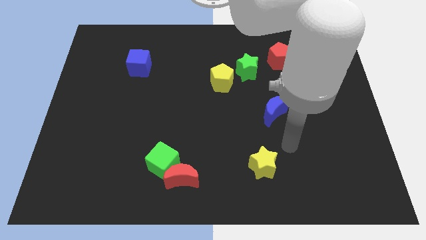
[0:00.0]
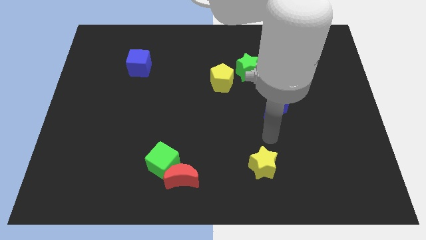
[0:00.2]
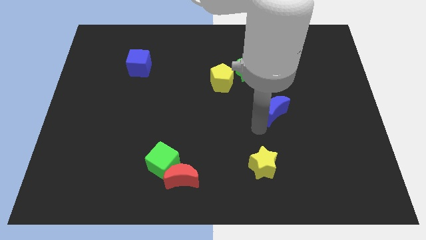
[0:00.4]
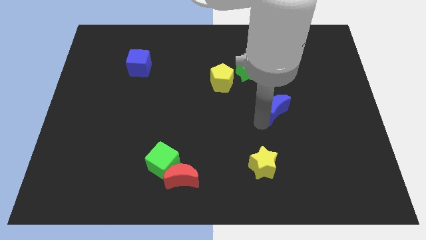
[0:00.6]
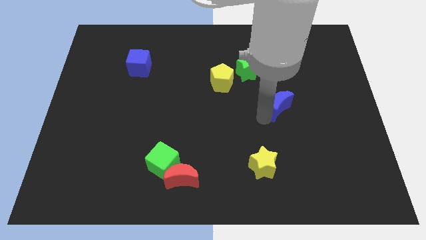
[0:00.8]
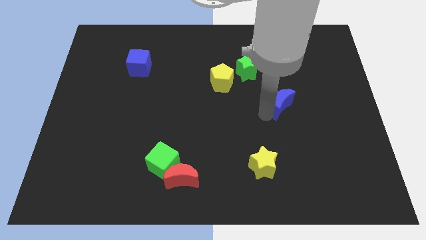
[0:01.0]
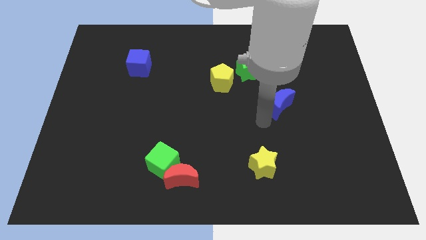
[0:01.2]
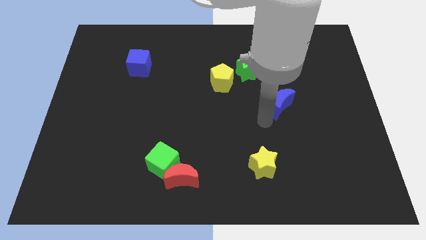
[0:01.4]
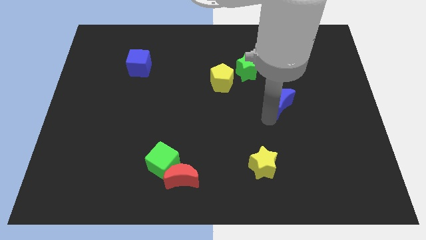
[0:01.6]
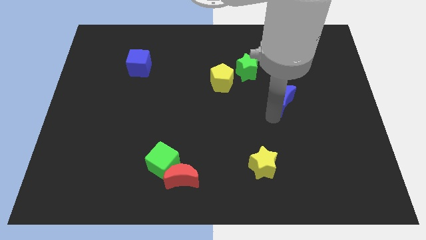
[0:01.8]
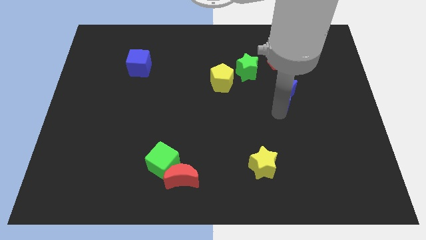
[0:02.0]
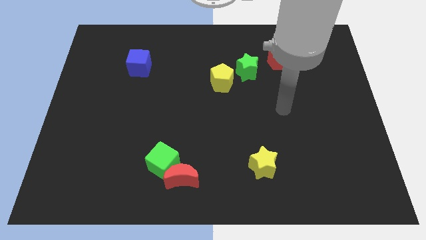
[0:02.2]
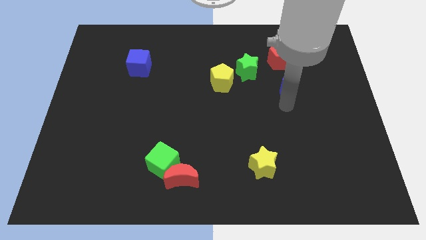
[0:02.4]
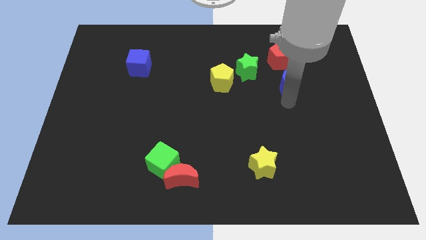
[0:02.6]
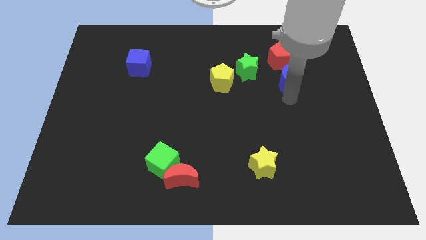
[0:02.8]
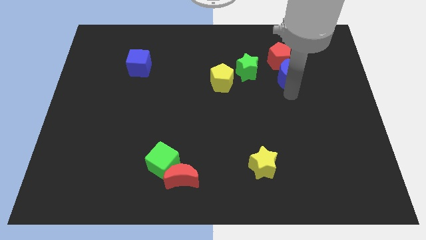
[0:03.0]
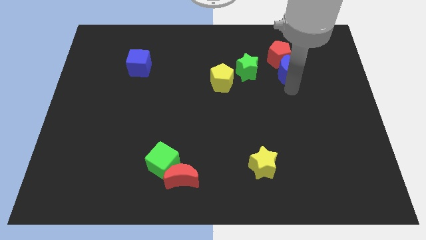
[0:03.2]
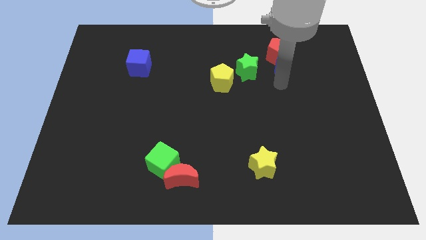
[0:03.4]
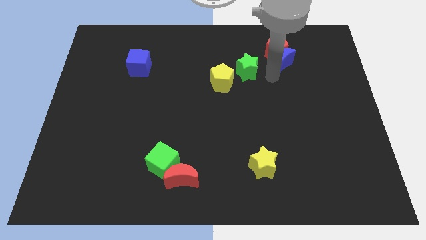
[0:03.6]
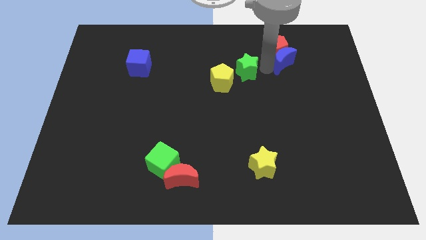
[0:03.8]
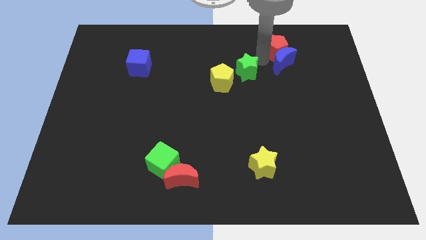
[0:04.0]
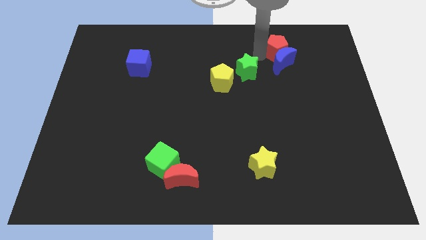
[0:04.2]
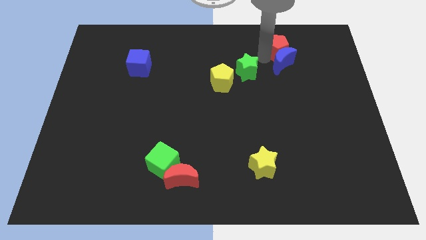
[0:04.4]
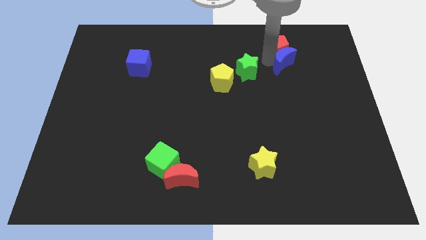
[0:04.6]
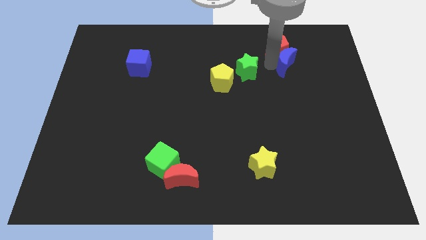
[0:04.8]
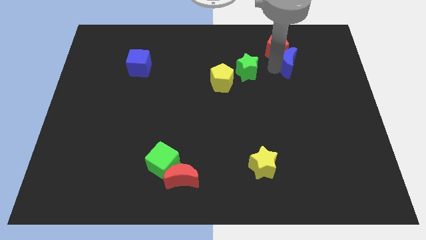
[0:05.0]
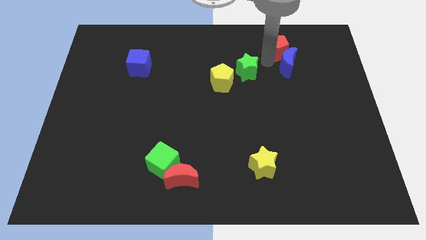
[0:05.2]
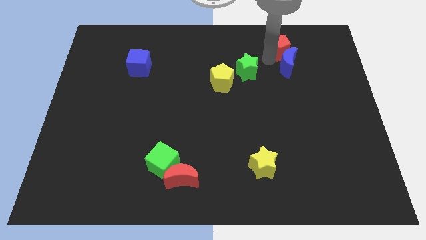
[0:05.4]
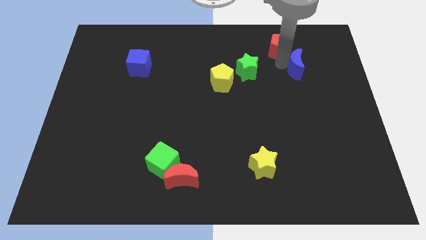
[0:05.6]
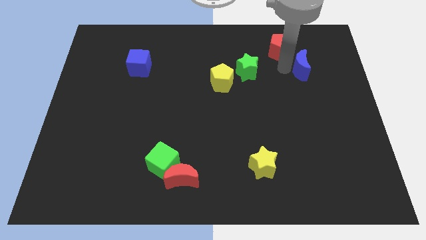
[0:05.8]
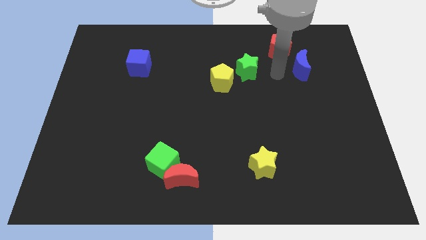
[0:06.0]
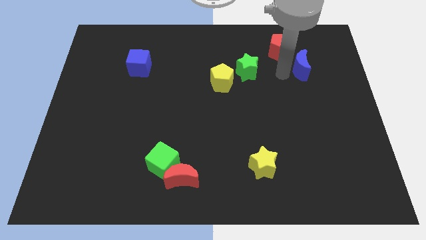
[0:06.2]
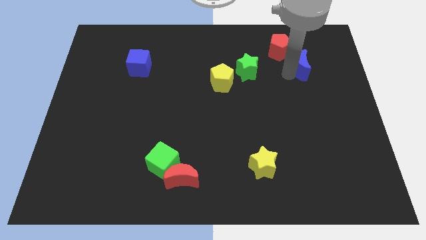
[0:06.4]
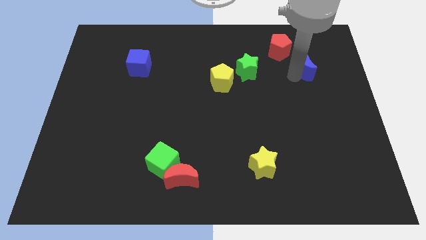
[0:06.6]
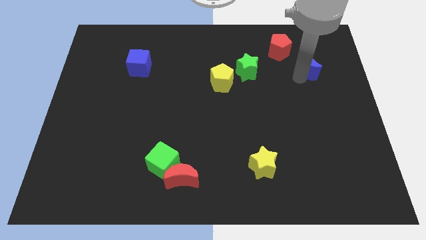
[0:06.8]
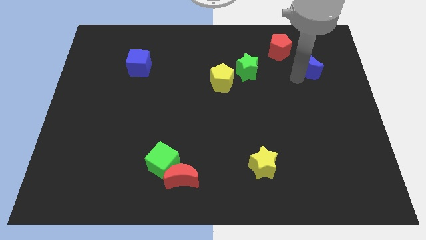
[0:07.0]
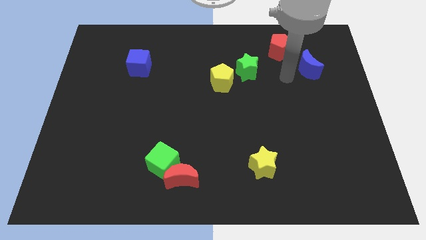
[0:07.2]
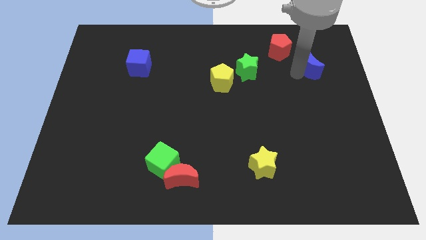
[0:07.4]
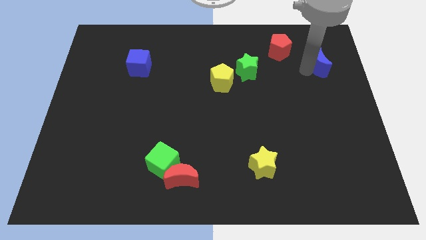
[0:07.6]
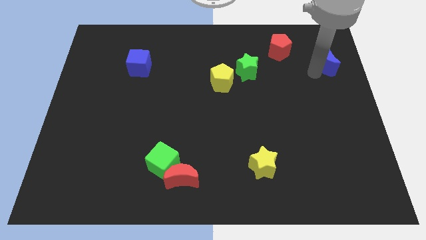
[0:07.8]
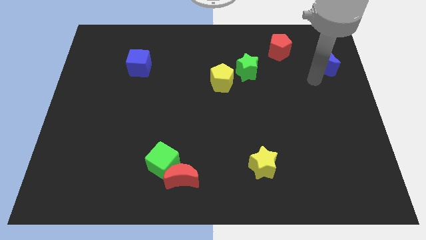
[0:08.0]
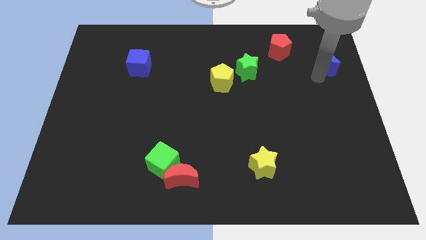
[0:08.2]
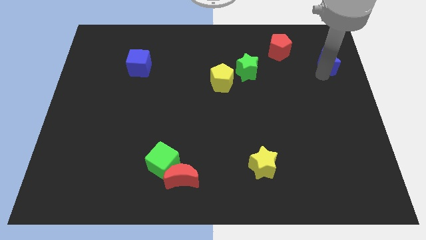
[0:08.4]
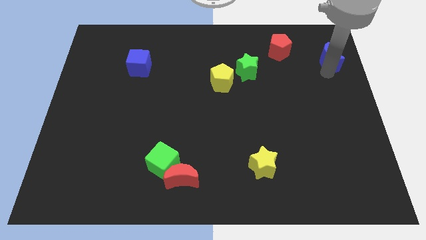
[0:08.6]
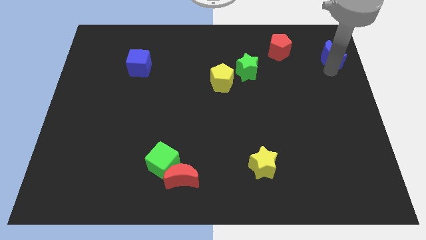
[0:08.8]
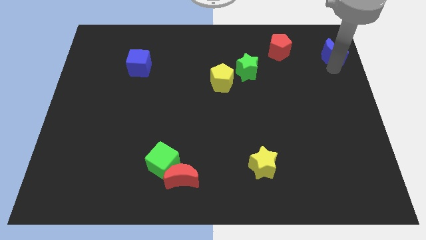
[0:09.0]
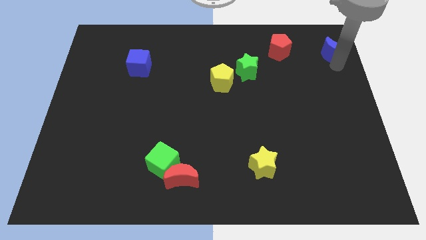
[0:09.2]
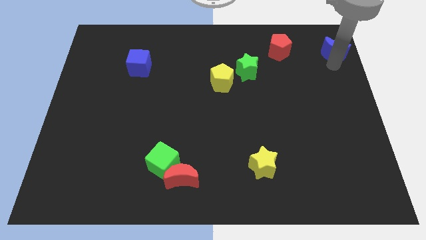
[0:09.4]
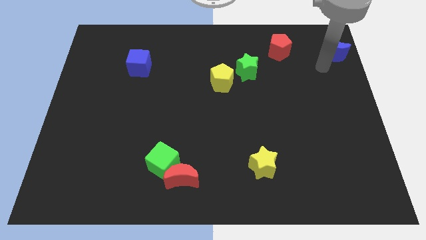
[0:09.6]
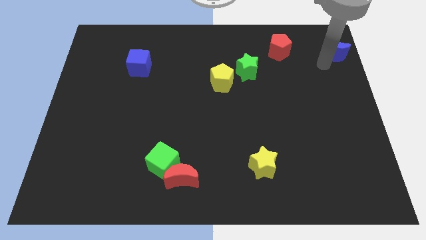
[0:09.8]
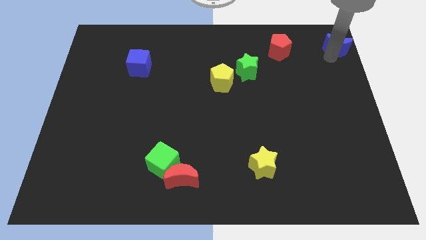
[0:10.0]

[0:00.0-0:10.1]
put the blue moon to the upper right corner

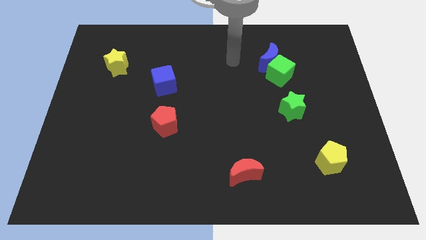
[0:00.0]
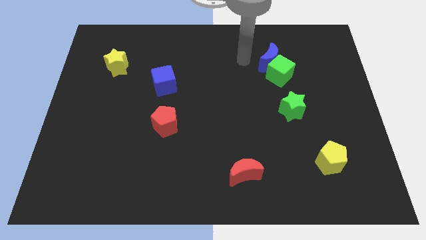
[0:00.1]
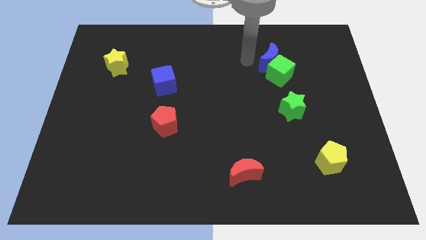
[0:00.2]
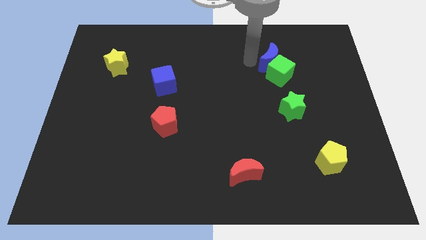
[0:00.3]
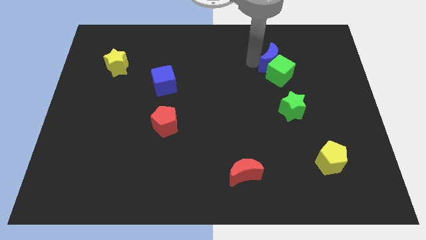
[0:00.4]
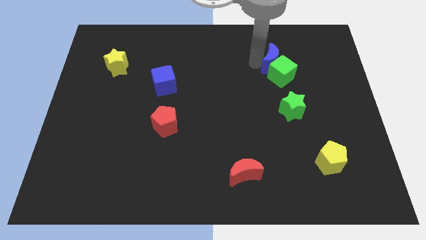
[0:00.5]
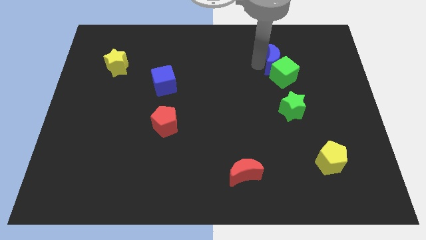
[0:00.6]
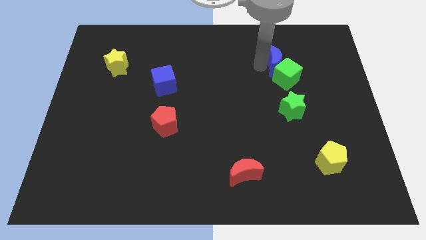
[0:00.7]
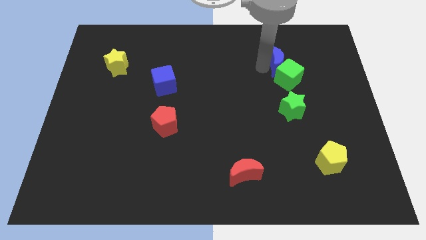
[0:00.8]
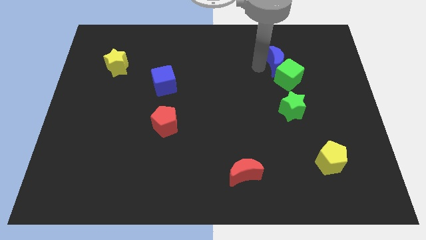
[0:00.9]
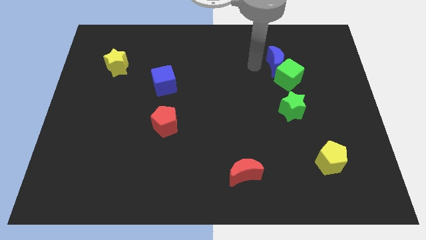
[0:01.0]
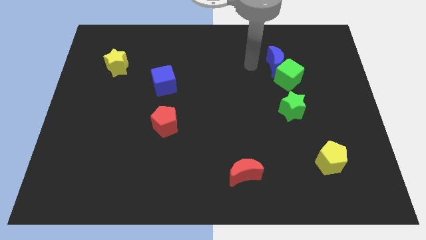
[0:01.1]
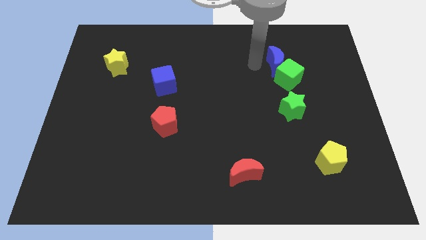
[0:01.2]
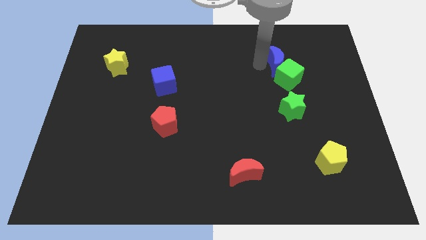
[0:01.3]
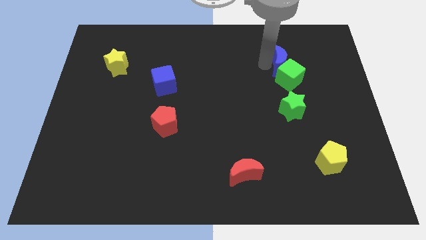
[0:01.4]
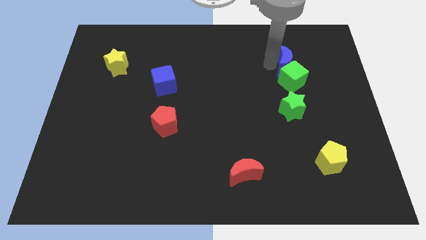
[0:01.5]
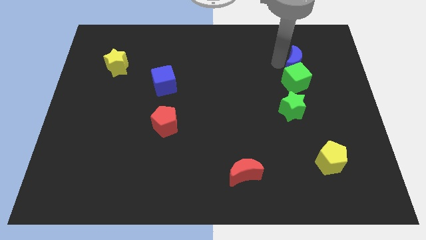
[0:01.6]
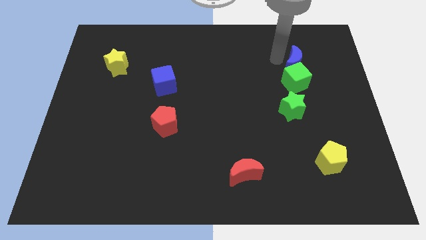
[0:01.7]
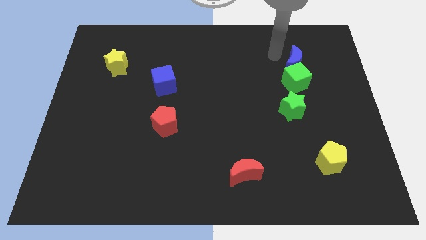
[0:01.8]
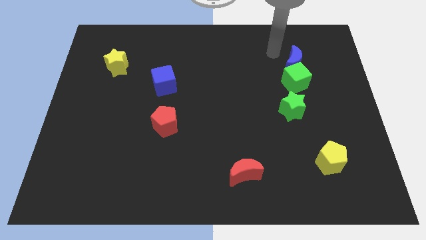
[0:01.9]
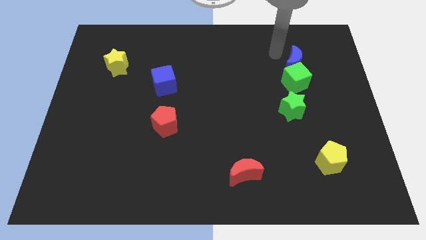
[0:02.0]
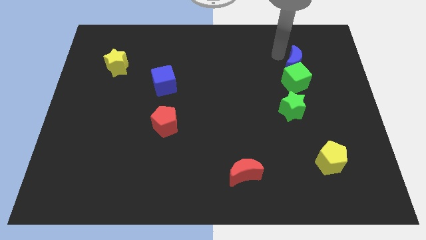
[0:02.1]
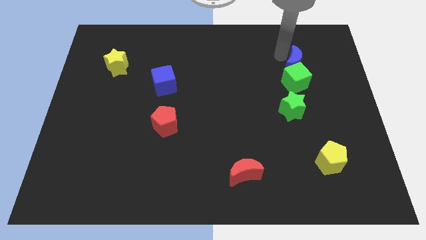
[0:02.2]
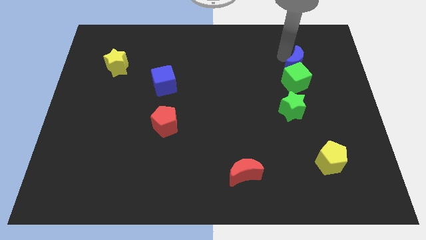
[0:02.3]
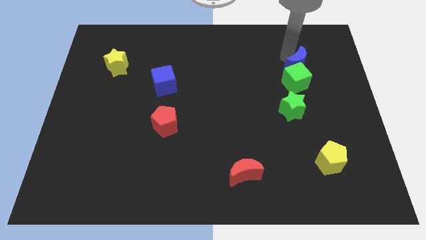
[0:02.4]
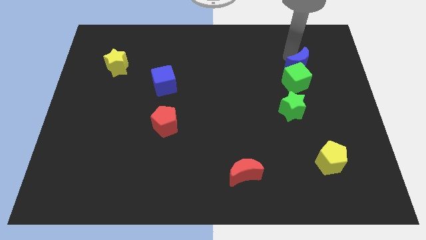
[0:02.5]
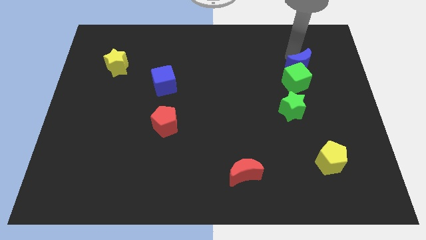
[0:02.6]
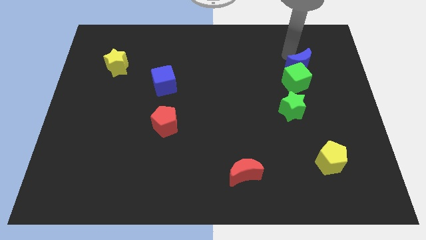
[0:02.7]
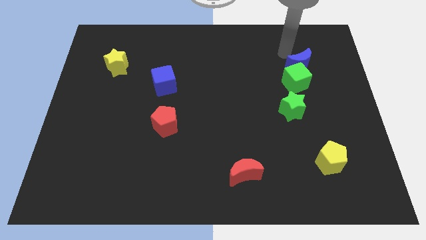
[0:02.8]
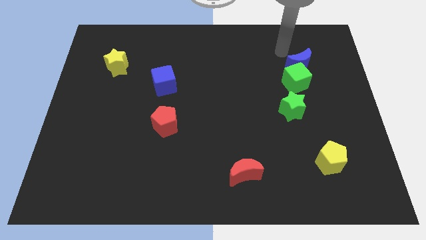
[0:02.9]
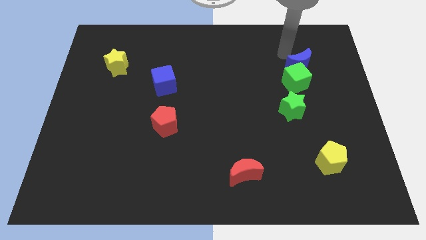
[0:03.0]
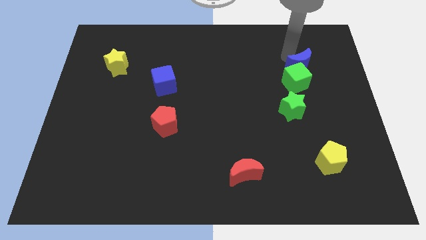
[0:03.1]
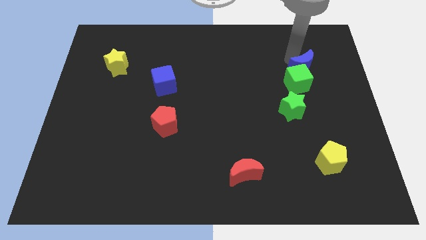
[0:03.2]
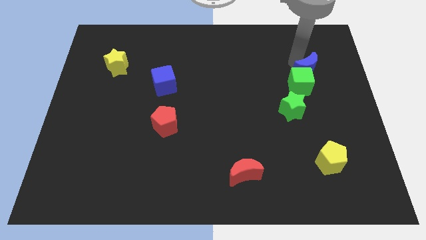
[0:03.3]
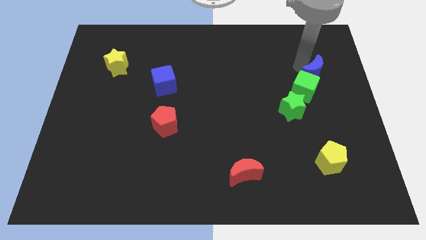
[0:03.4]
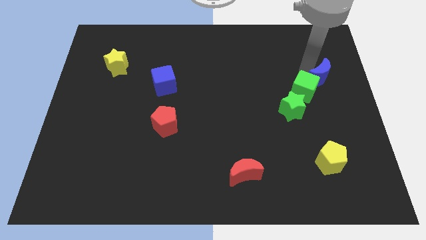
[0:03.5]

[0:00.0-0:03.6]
slide the blue moon to the right side of the board
